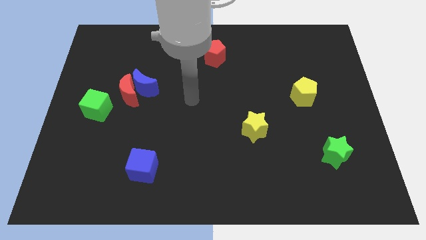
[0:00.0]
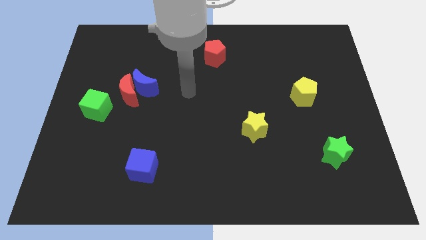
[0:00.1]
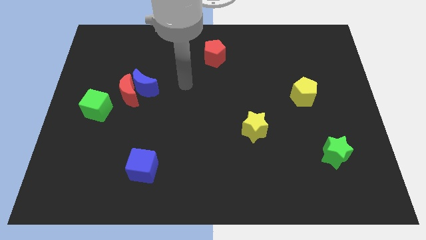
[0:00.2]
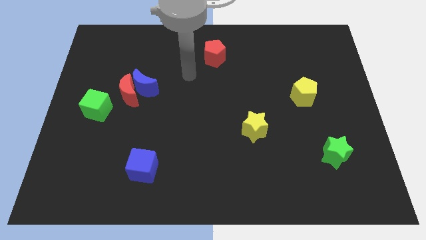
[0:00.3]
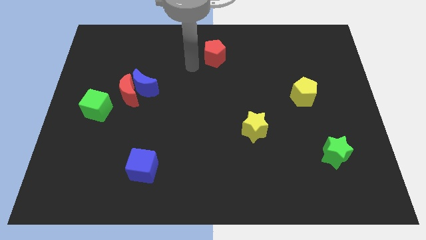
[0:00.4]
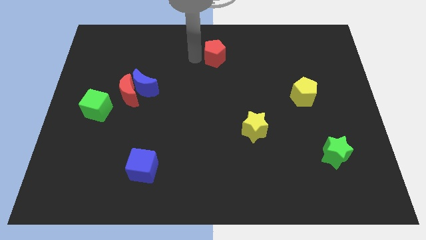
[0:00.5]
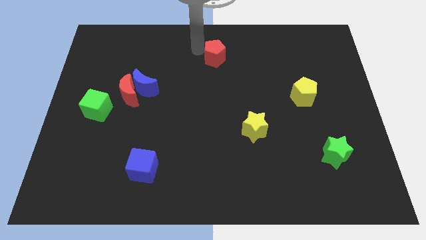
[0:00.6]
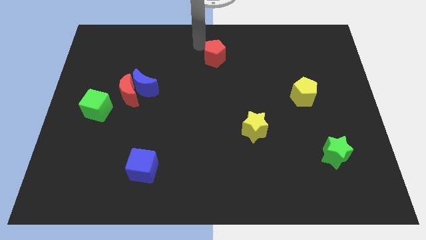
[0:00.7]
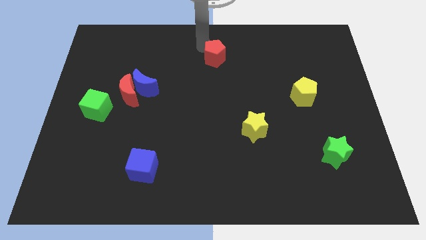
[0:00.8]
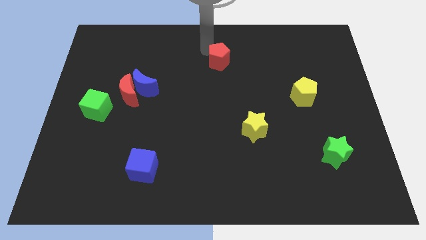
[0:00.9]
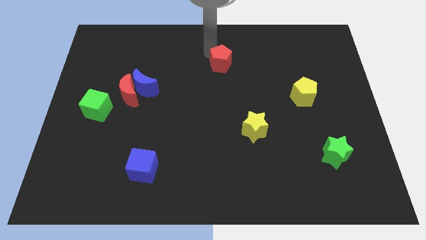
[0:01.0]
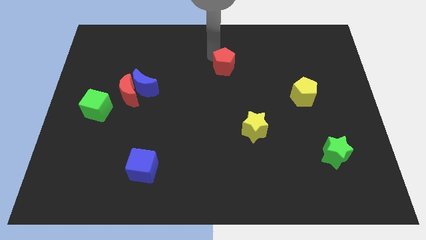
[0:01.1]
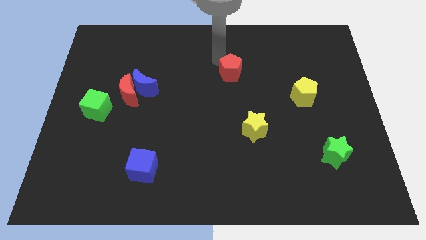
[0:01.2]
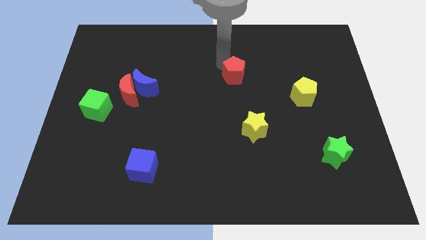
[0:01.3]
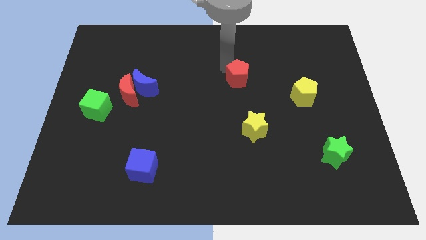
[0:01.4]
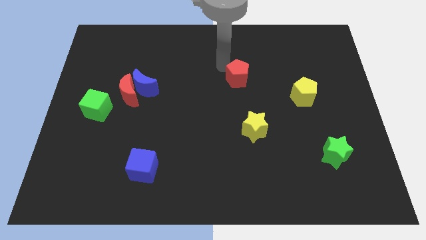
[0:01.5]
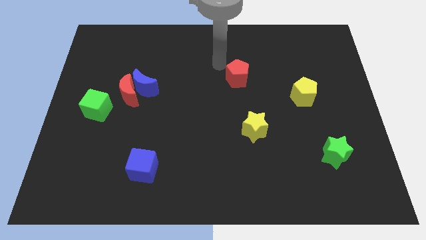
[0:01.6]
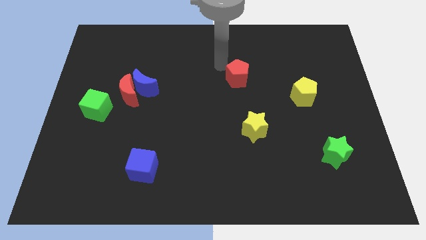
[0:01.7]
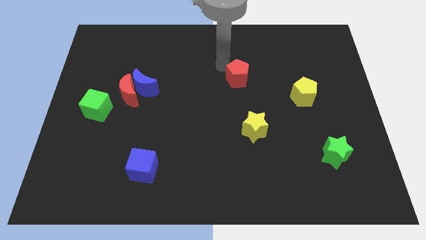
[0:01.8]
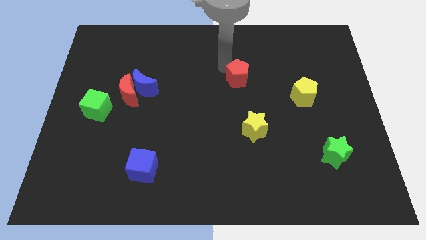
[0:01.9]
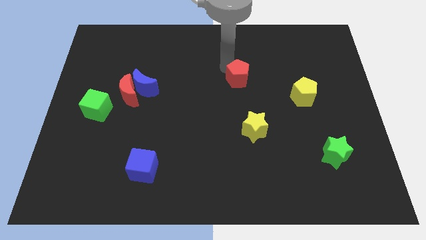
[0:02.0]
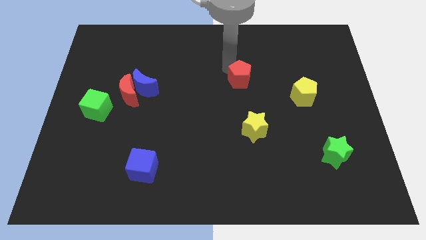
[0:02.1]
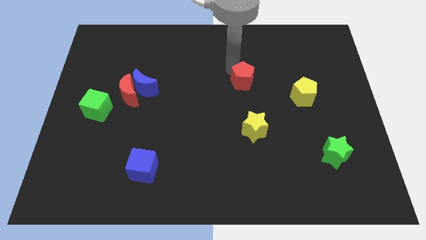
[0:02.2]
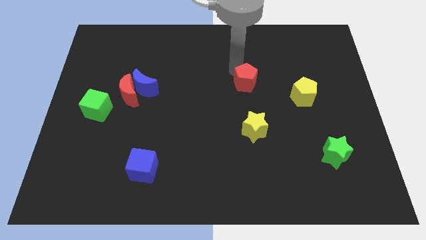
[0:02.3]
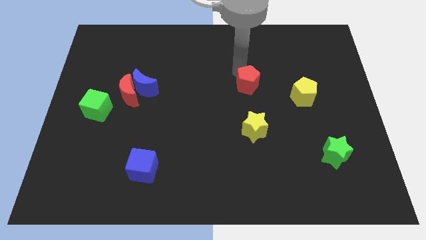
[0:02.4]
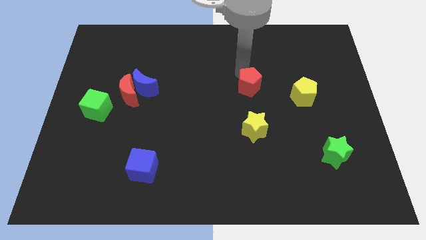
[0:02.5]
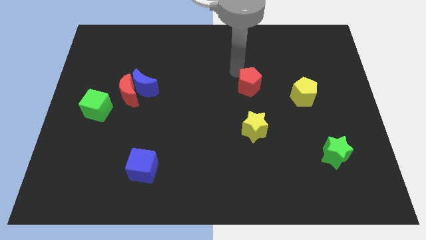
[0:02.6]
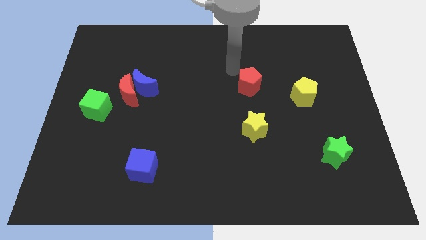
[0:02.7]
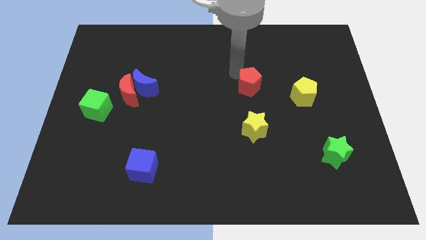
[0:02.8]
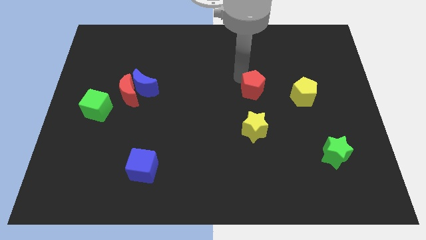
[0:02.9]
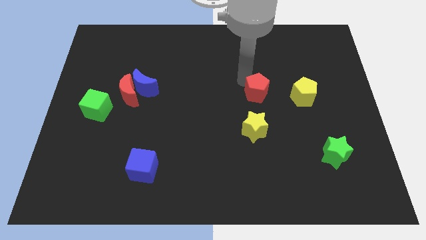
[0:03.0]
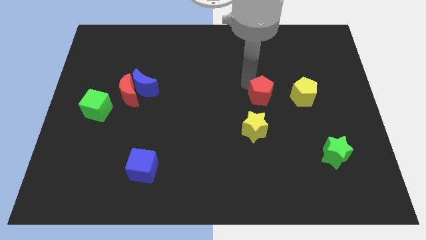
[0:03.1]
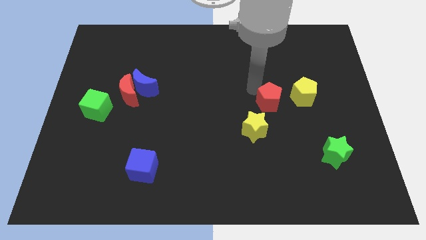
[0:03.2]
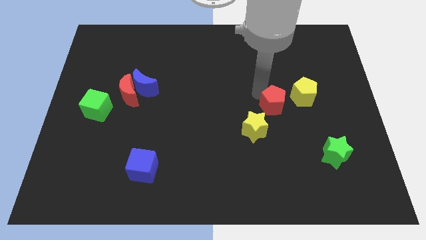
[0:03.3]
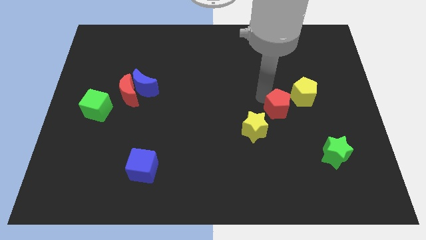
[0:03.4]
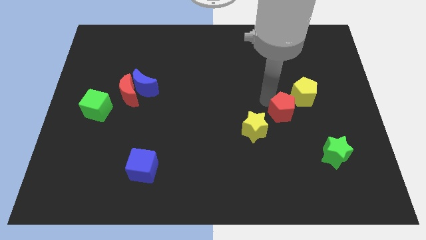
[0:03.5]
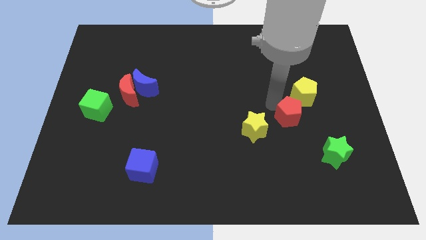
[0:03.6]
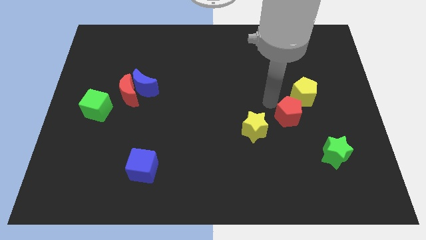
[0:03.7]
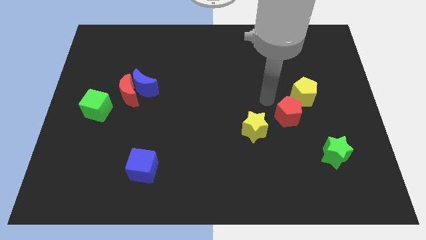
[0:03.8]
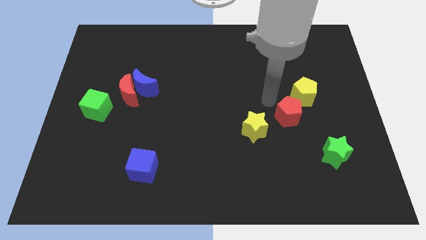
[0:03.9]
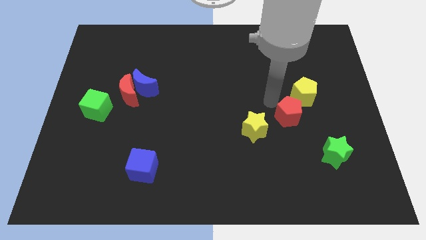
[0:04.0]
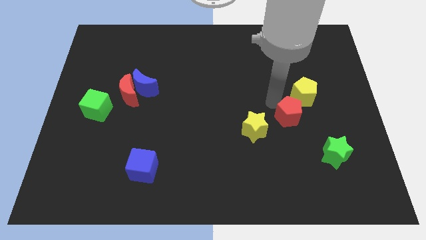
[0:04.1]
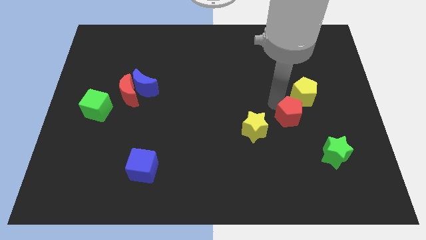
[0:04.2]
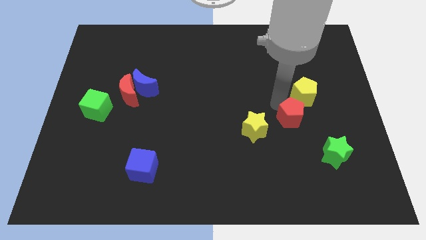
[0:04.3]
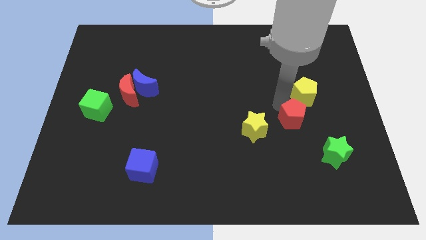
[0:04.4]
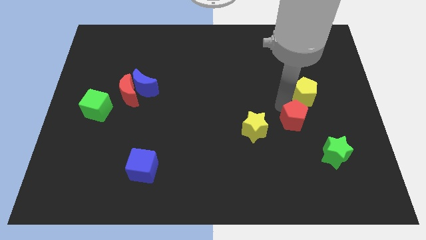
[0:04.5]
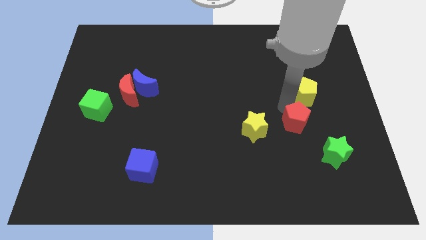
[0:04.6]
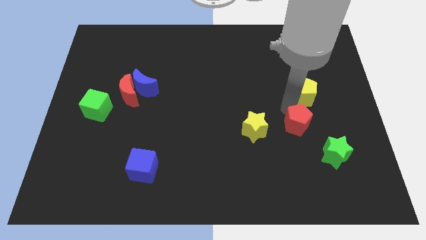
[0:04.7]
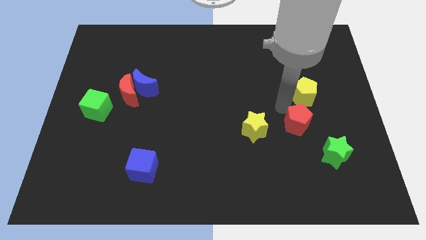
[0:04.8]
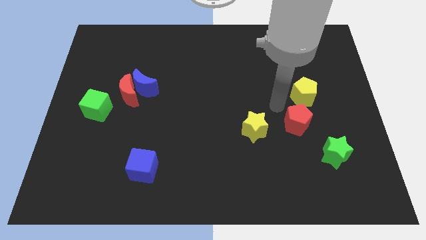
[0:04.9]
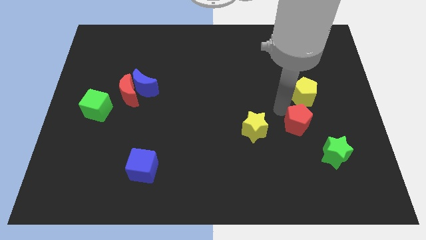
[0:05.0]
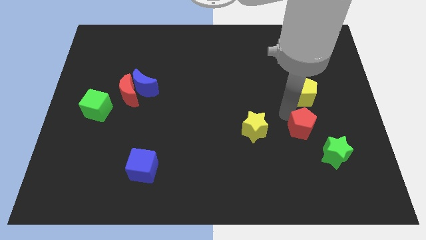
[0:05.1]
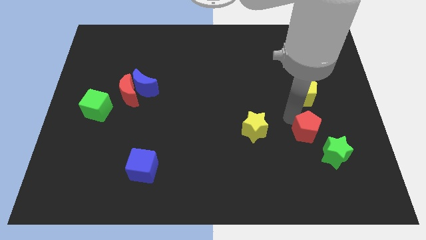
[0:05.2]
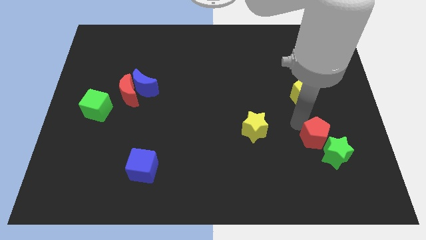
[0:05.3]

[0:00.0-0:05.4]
move the red pentagon to the green star

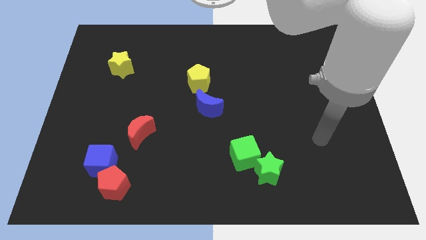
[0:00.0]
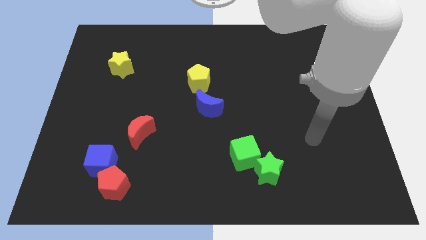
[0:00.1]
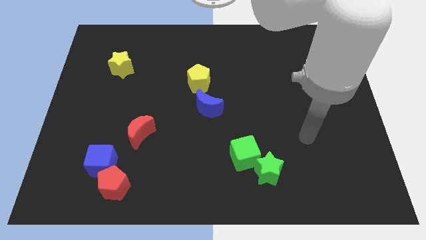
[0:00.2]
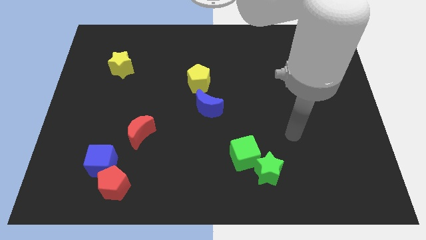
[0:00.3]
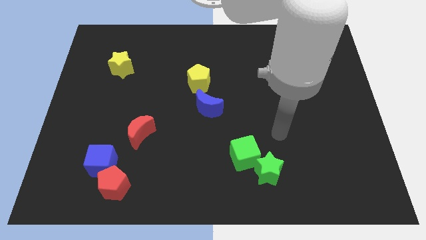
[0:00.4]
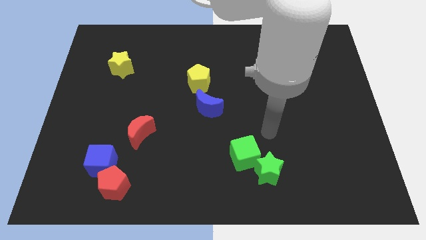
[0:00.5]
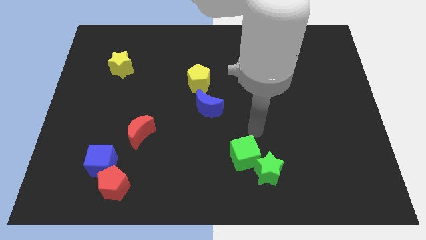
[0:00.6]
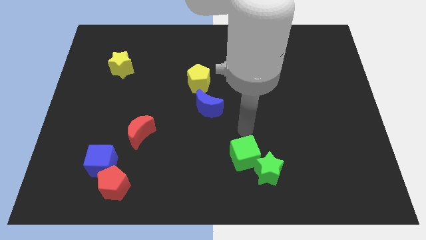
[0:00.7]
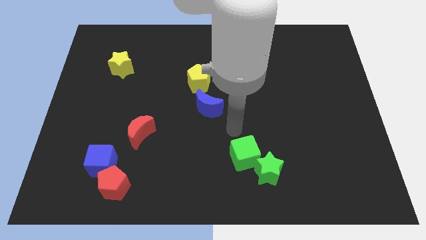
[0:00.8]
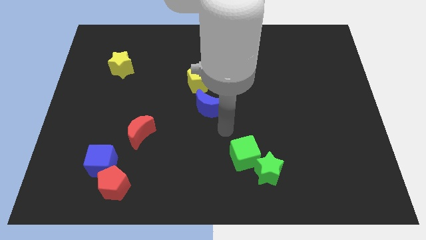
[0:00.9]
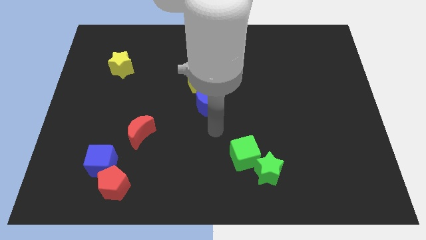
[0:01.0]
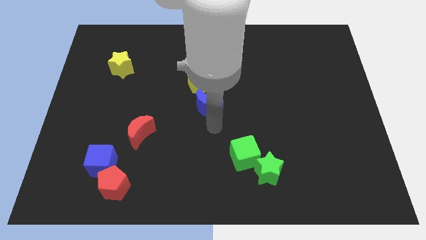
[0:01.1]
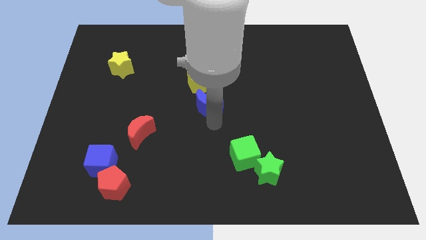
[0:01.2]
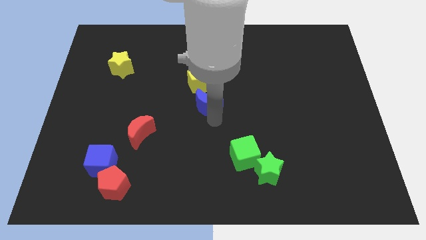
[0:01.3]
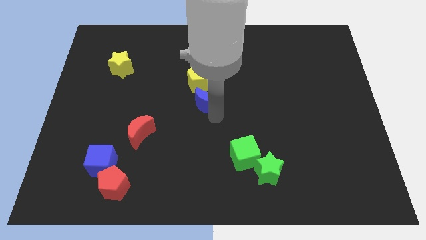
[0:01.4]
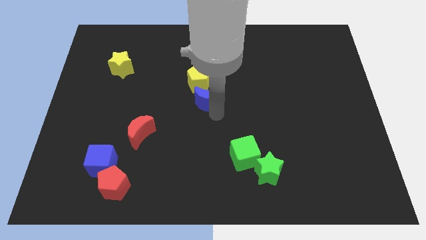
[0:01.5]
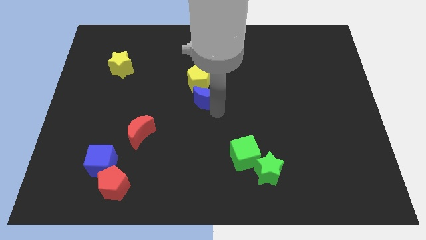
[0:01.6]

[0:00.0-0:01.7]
put the blue moon towards the yellow pentagon
